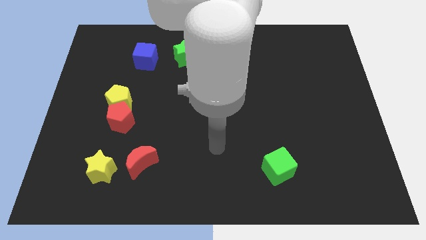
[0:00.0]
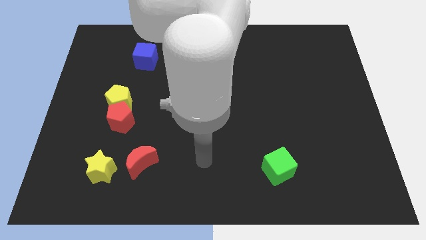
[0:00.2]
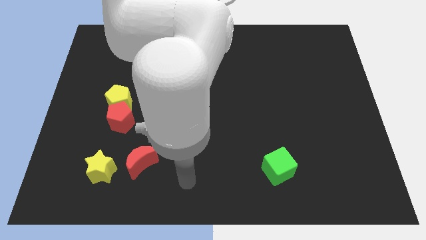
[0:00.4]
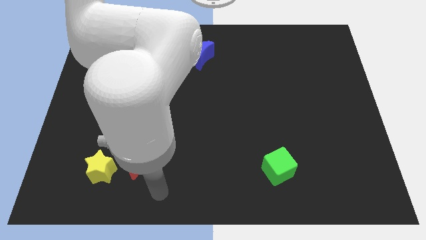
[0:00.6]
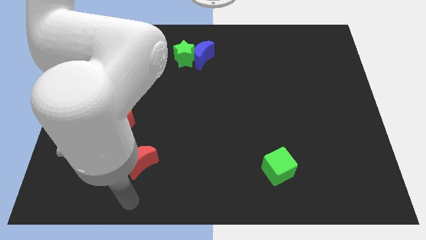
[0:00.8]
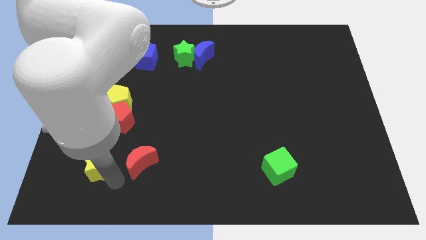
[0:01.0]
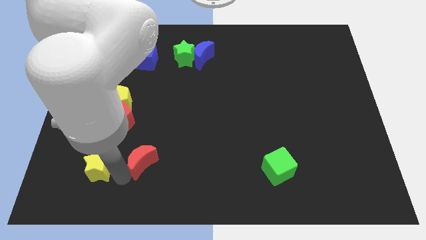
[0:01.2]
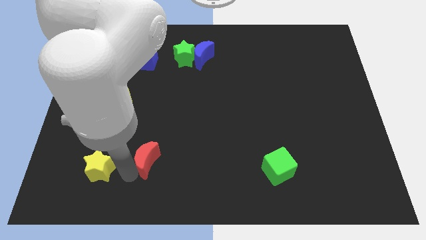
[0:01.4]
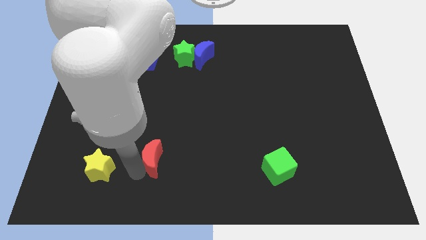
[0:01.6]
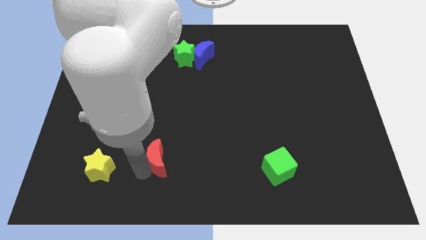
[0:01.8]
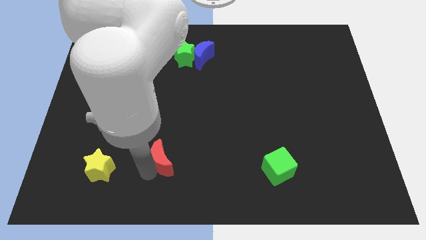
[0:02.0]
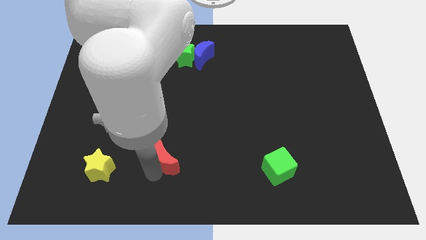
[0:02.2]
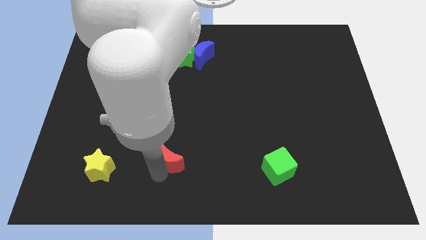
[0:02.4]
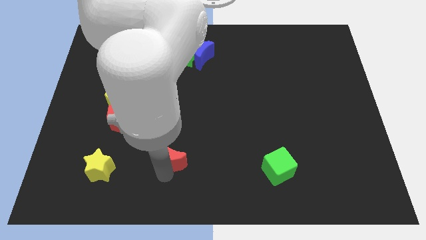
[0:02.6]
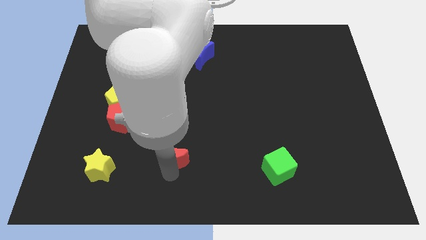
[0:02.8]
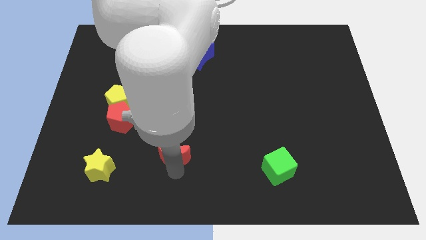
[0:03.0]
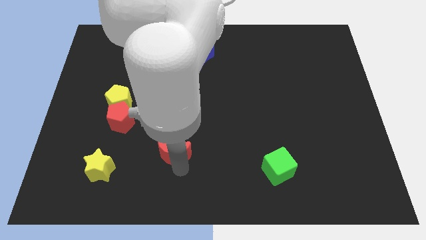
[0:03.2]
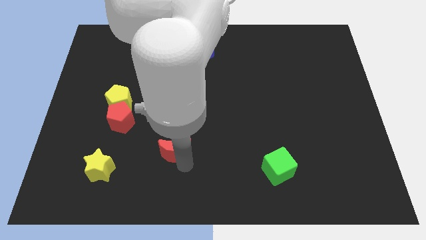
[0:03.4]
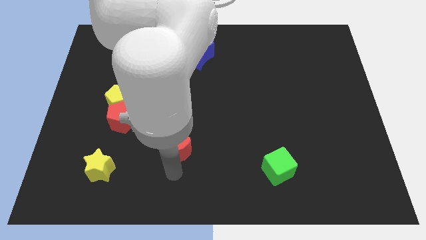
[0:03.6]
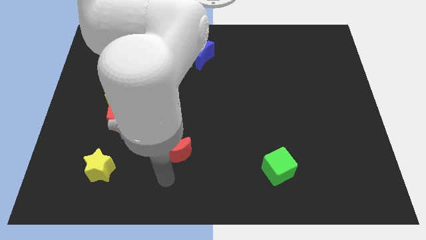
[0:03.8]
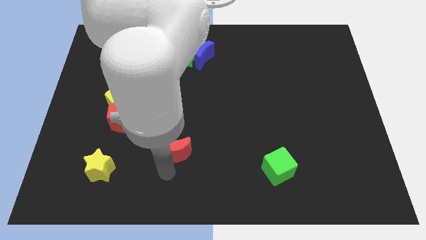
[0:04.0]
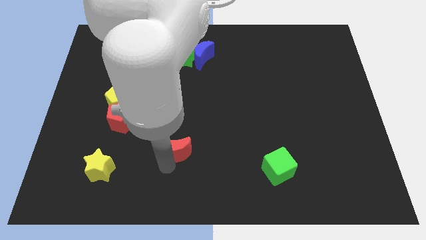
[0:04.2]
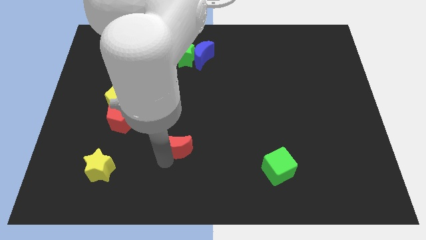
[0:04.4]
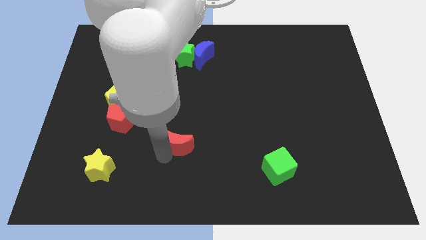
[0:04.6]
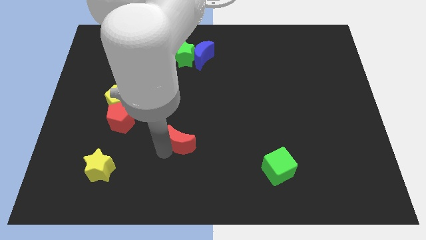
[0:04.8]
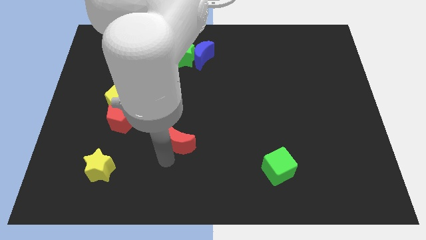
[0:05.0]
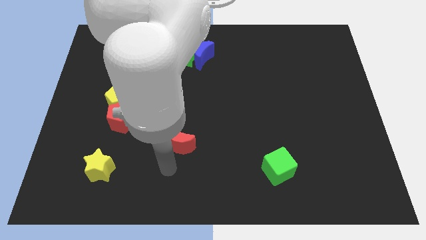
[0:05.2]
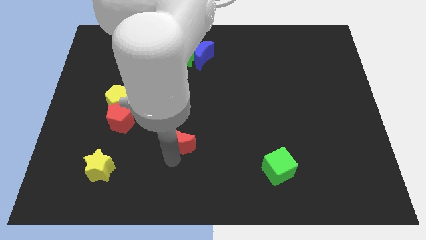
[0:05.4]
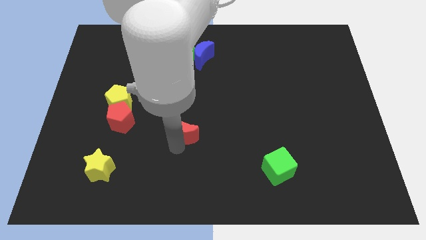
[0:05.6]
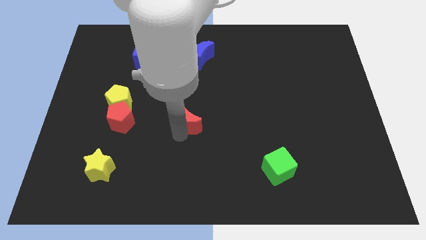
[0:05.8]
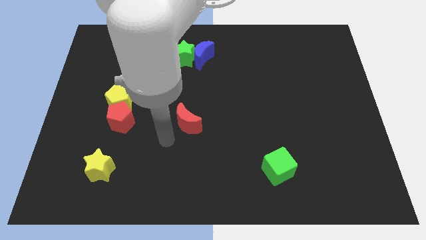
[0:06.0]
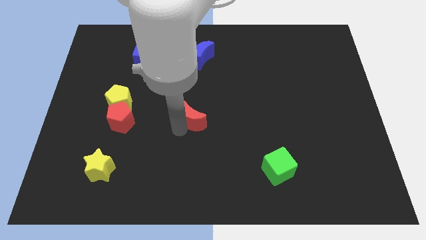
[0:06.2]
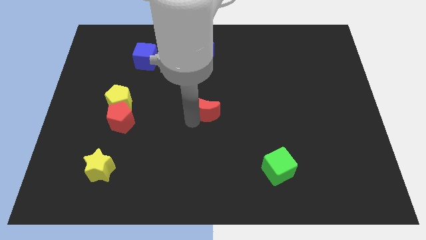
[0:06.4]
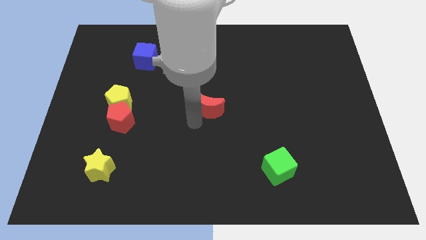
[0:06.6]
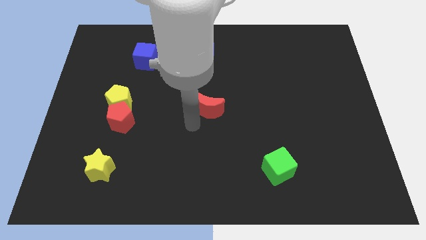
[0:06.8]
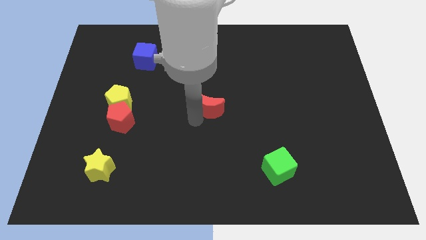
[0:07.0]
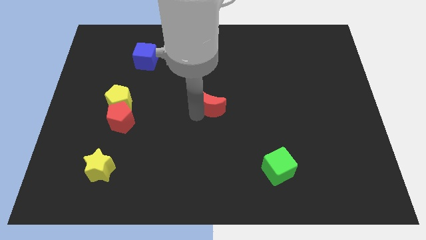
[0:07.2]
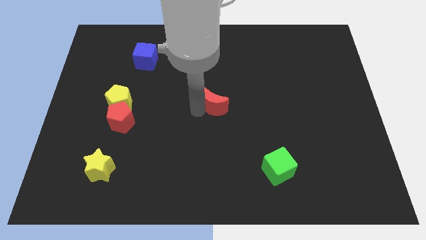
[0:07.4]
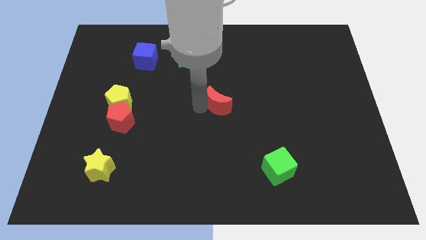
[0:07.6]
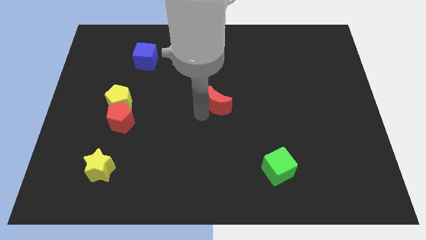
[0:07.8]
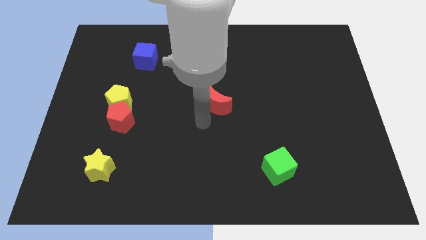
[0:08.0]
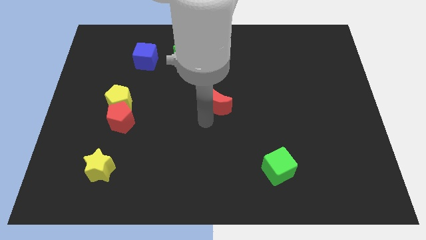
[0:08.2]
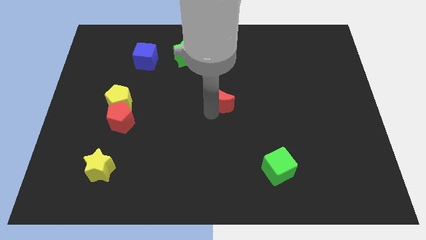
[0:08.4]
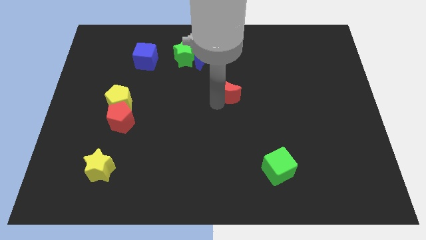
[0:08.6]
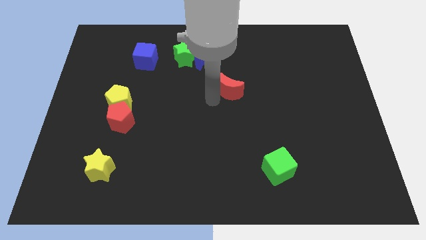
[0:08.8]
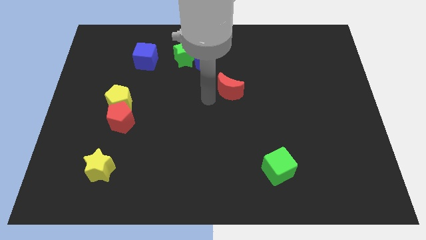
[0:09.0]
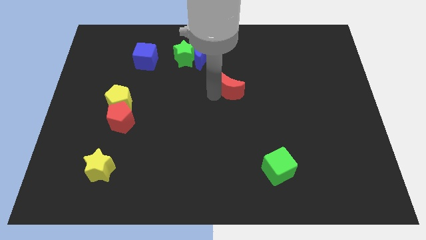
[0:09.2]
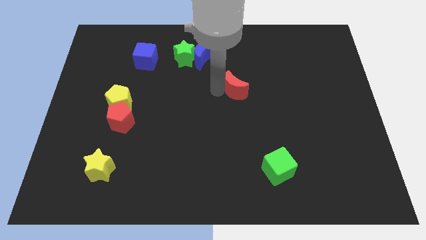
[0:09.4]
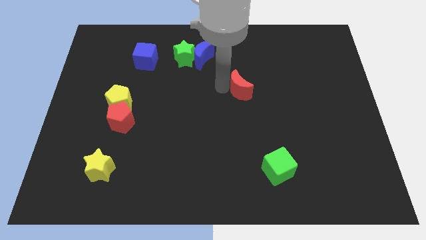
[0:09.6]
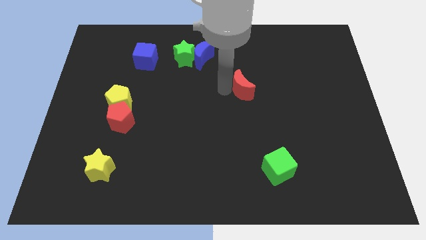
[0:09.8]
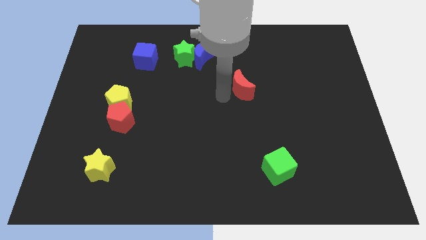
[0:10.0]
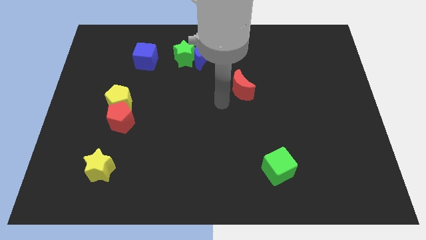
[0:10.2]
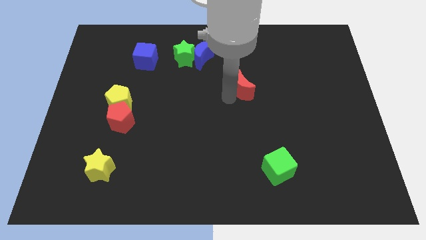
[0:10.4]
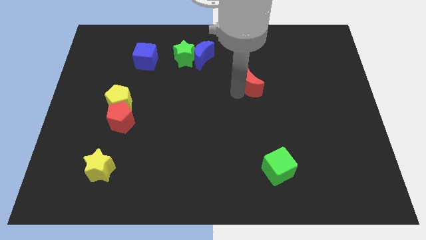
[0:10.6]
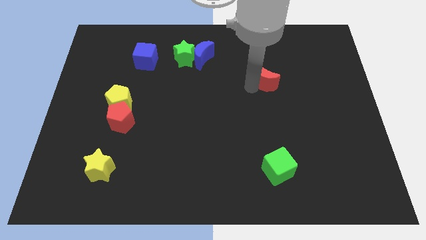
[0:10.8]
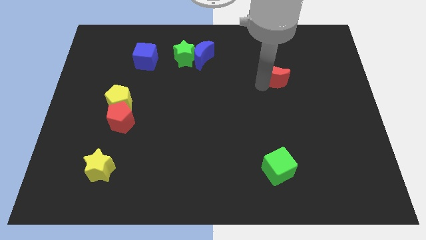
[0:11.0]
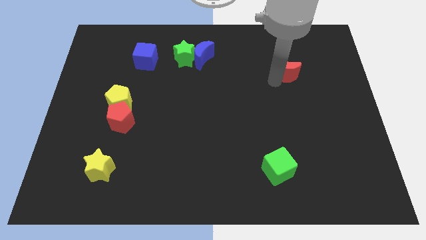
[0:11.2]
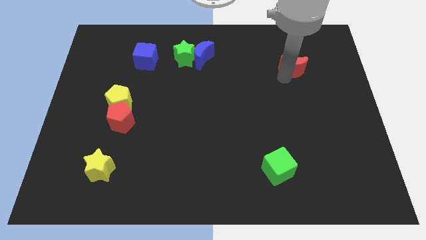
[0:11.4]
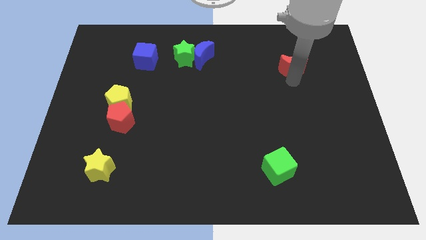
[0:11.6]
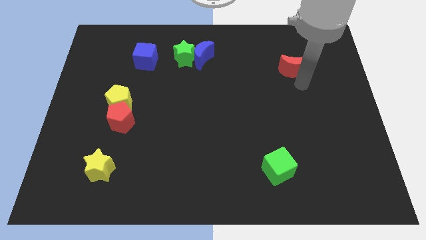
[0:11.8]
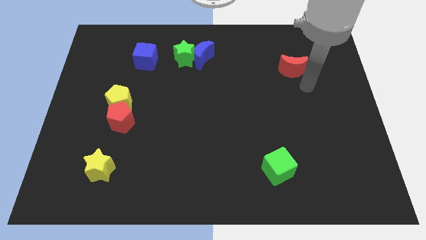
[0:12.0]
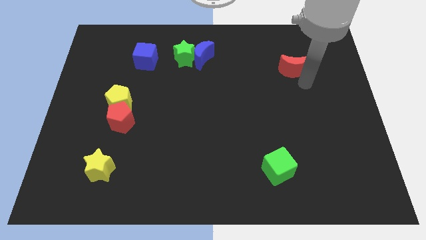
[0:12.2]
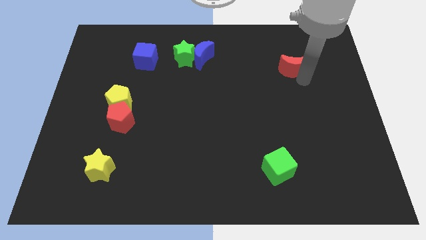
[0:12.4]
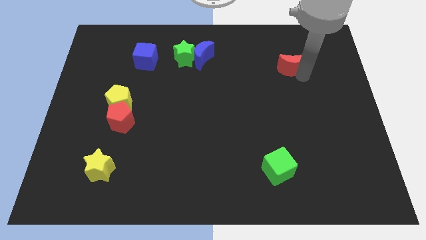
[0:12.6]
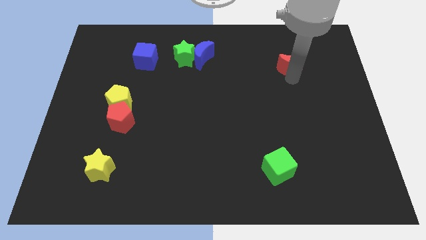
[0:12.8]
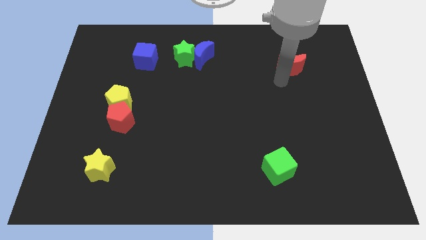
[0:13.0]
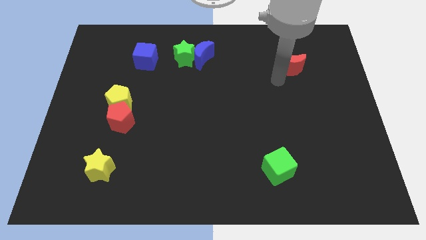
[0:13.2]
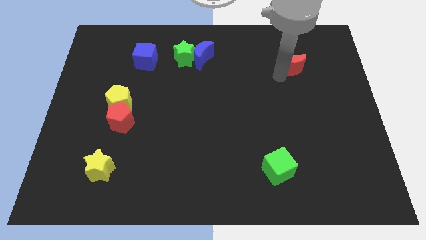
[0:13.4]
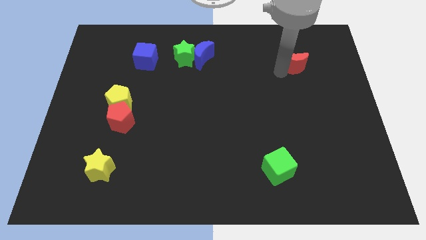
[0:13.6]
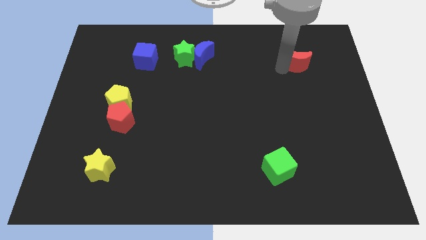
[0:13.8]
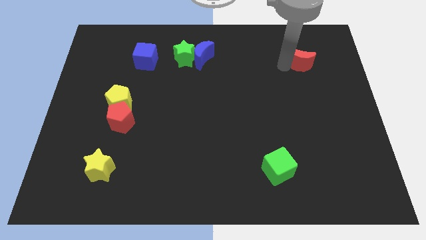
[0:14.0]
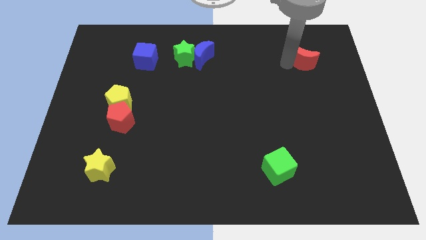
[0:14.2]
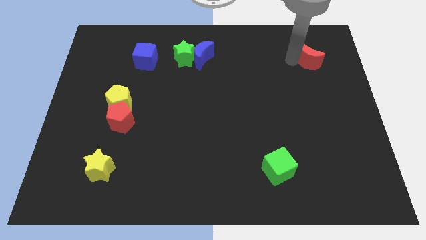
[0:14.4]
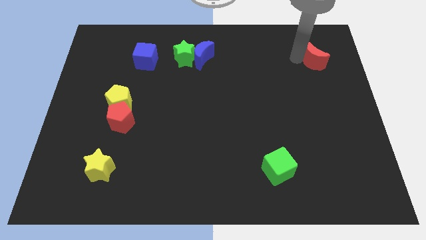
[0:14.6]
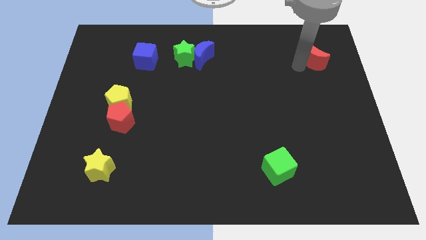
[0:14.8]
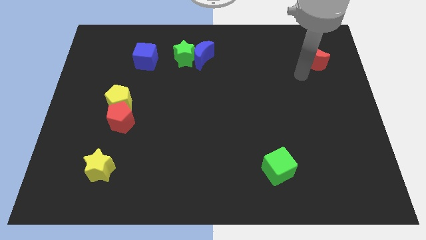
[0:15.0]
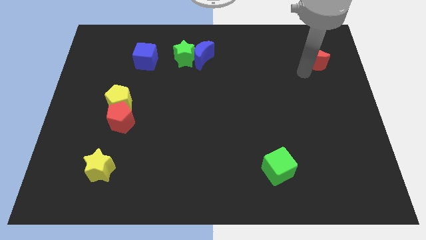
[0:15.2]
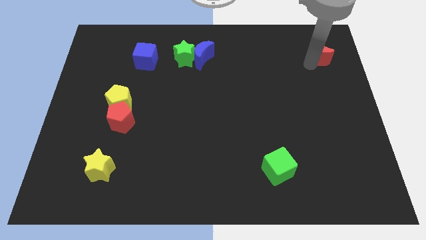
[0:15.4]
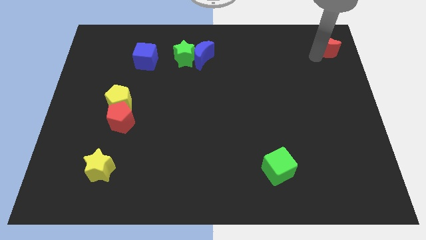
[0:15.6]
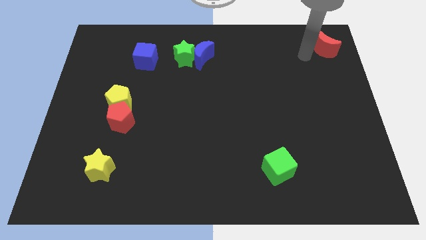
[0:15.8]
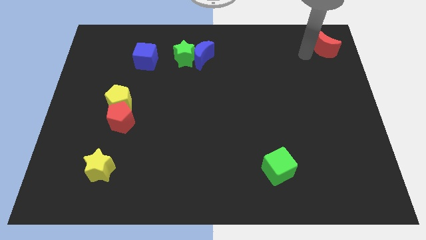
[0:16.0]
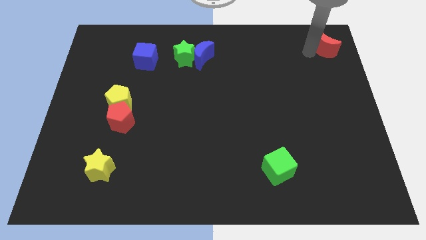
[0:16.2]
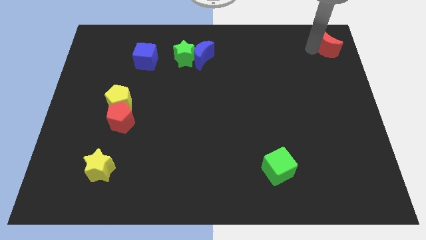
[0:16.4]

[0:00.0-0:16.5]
slide the red moon to the upper right corner
